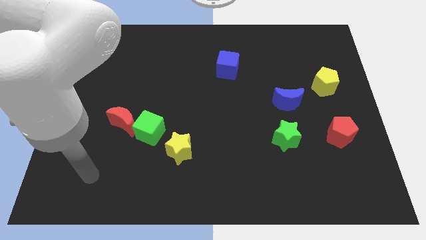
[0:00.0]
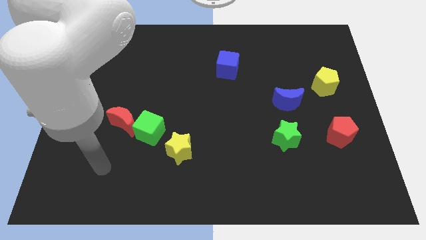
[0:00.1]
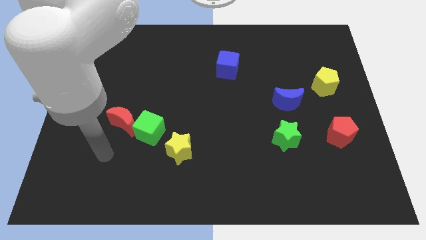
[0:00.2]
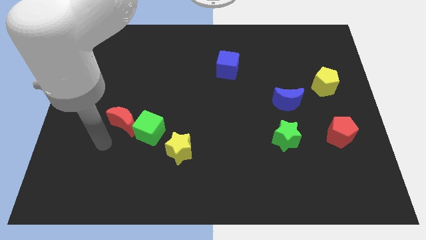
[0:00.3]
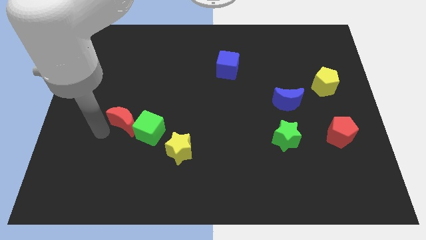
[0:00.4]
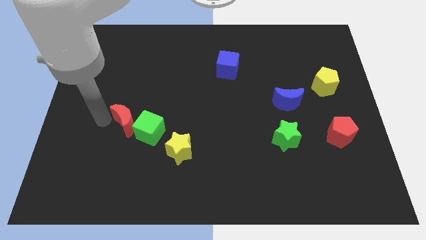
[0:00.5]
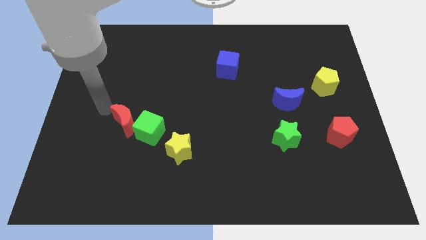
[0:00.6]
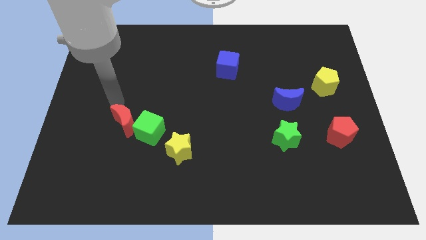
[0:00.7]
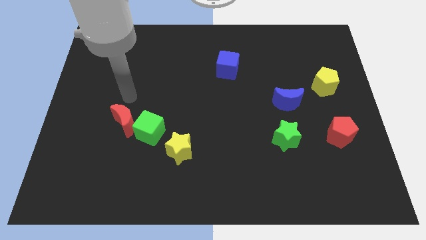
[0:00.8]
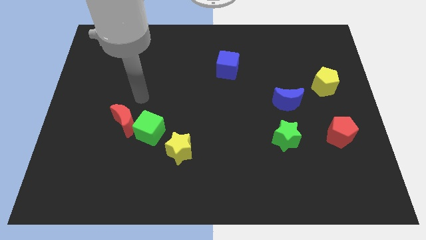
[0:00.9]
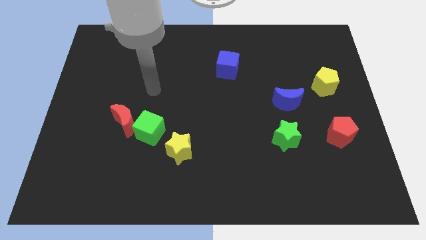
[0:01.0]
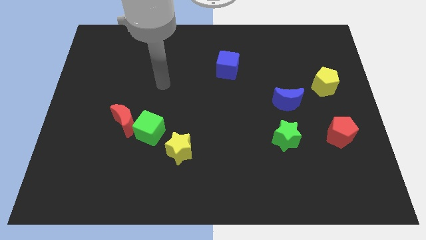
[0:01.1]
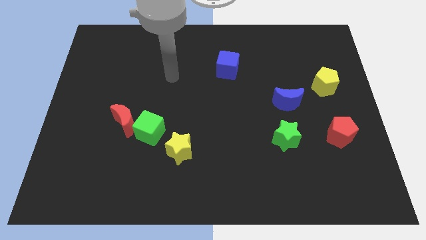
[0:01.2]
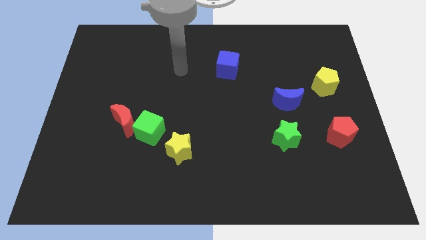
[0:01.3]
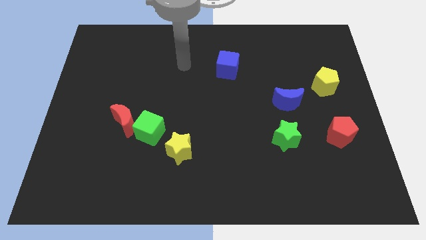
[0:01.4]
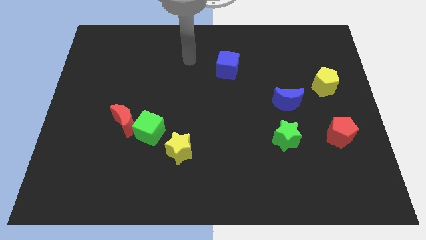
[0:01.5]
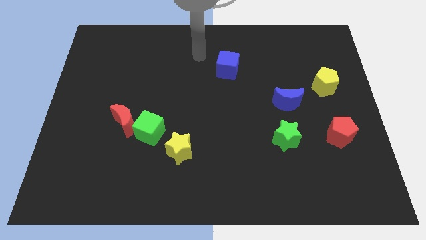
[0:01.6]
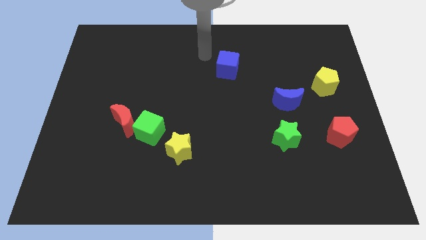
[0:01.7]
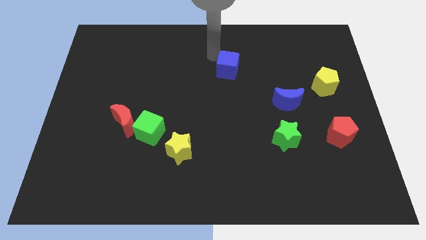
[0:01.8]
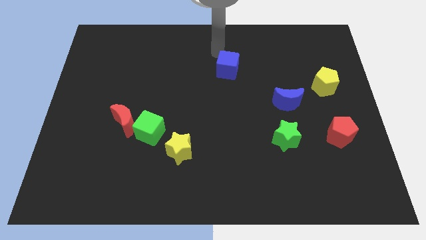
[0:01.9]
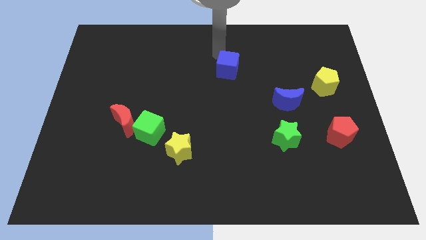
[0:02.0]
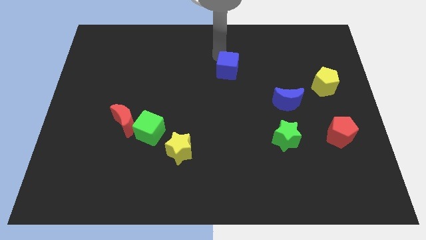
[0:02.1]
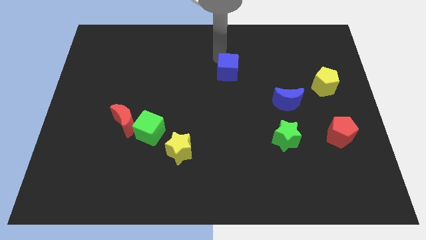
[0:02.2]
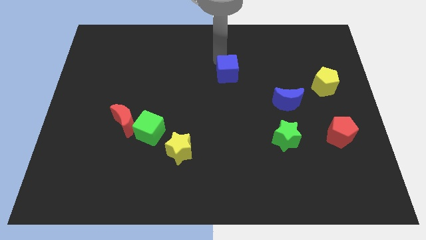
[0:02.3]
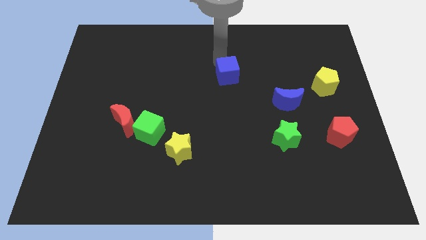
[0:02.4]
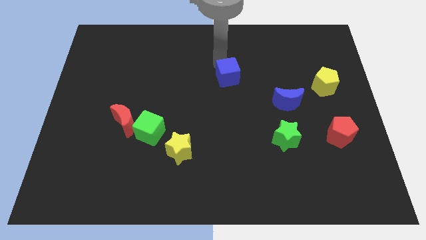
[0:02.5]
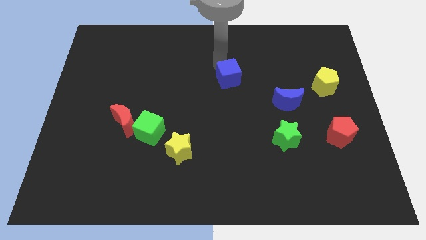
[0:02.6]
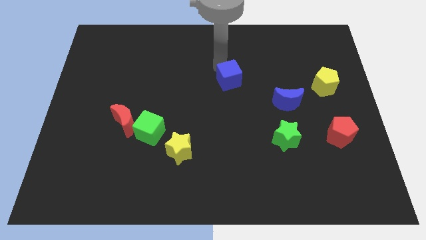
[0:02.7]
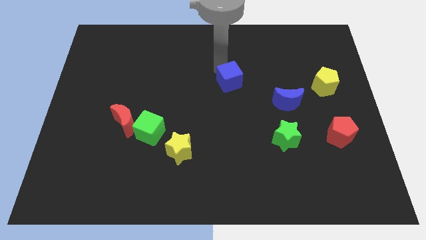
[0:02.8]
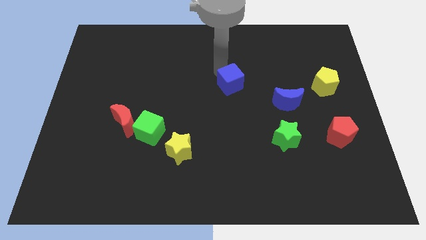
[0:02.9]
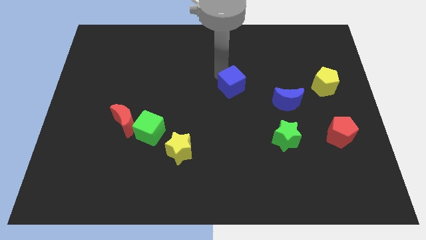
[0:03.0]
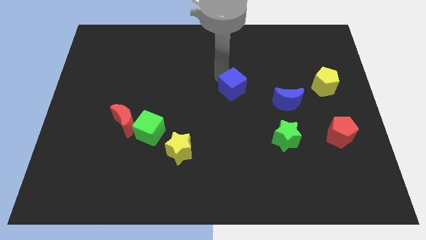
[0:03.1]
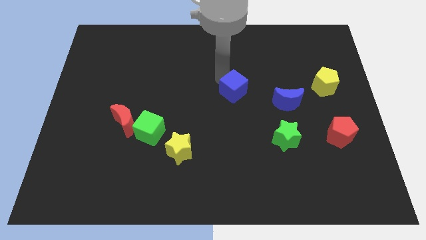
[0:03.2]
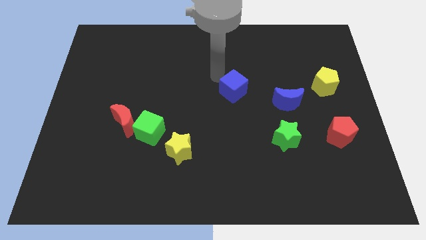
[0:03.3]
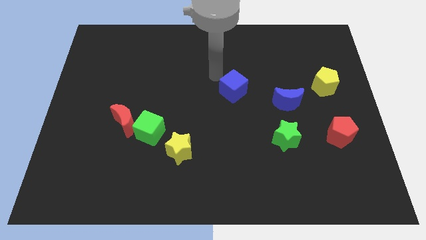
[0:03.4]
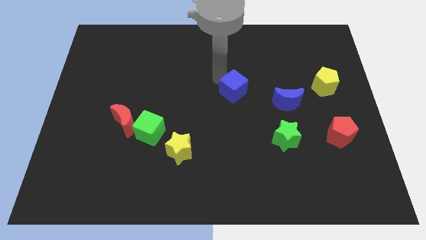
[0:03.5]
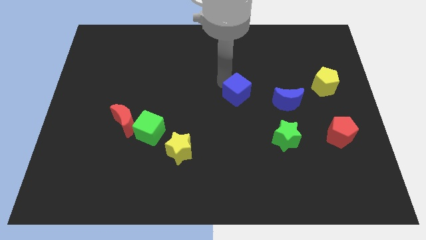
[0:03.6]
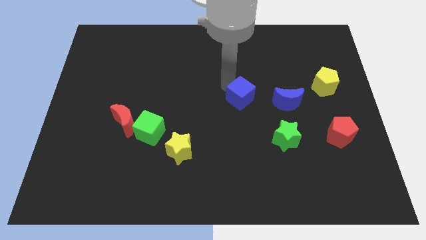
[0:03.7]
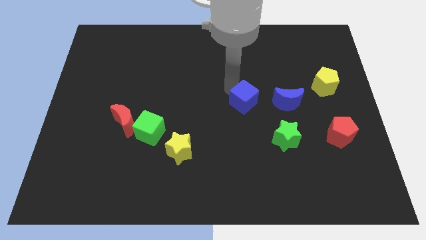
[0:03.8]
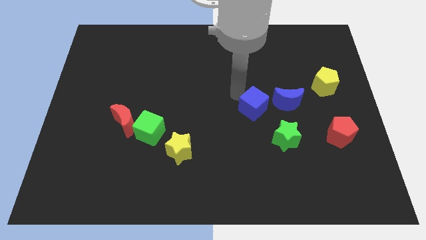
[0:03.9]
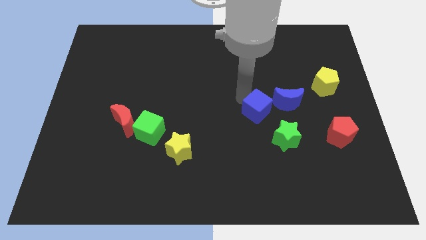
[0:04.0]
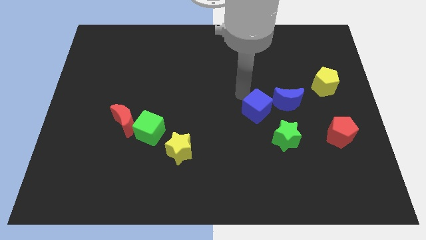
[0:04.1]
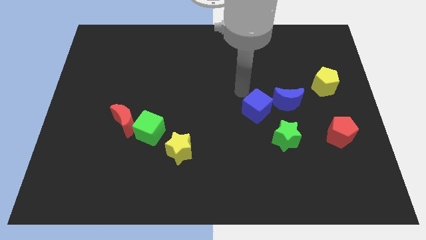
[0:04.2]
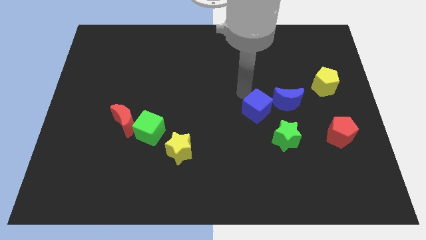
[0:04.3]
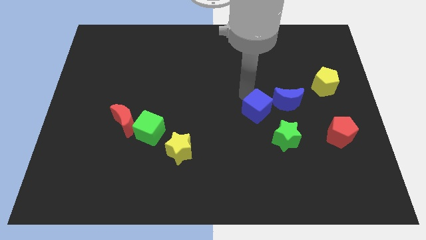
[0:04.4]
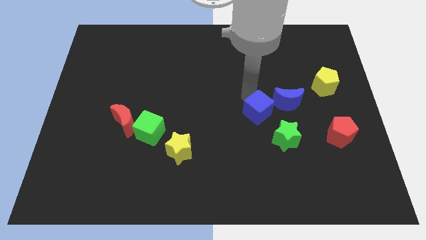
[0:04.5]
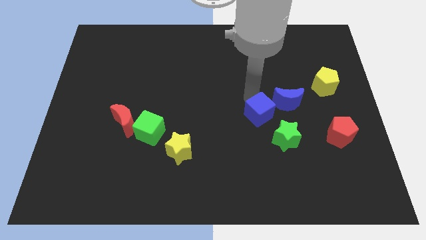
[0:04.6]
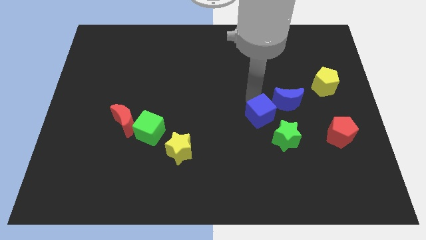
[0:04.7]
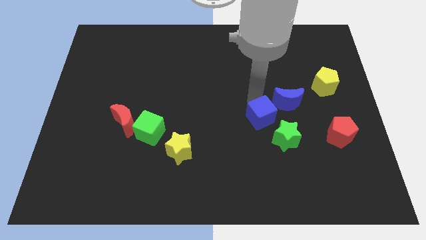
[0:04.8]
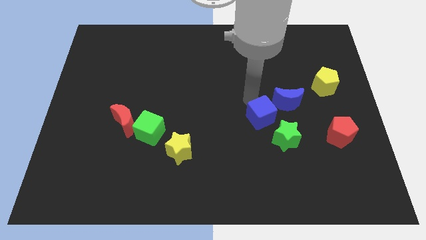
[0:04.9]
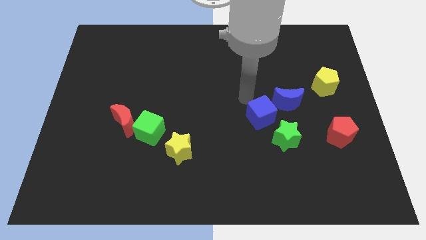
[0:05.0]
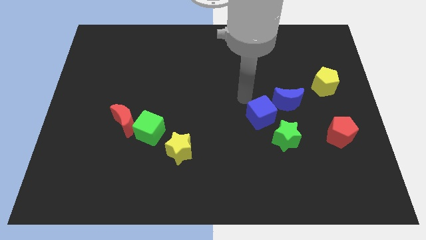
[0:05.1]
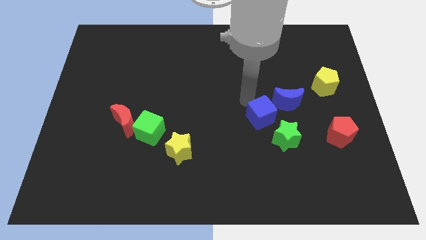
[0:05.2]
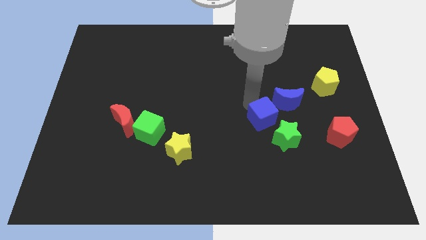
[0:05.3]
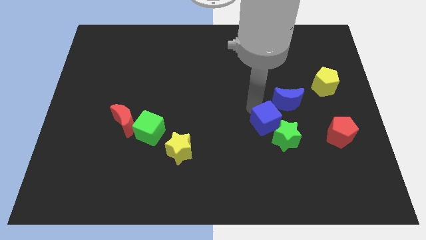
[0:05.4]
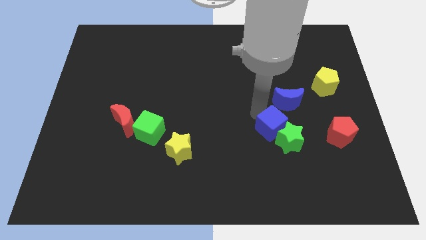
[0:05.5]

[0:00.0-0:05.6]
move the blue cube to the green star

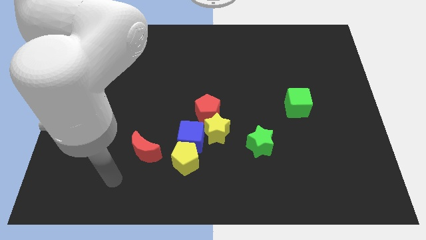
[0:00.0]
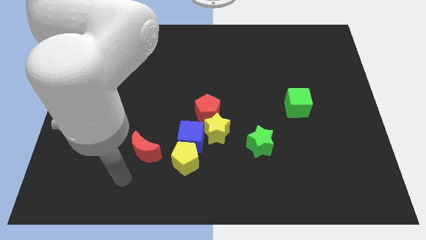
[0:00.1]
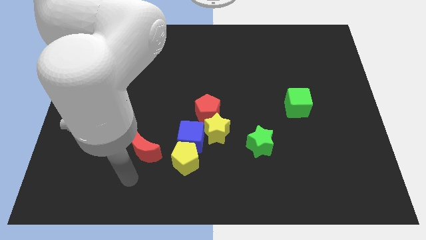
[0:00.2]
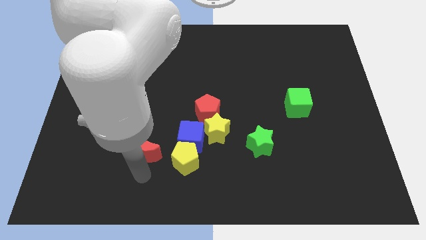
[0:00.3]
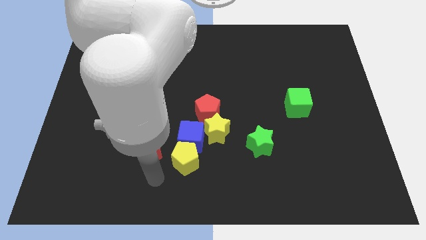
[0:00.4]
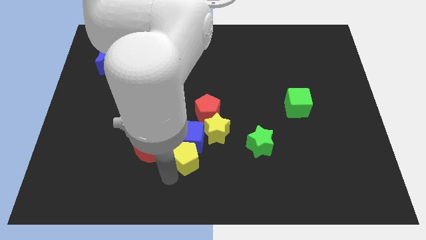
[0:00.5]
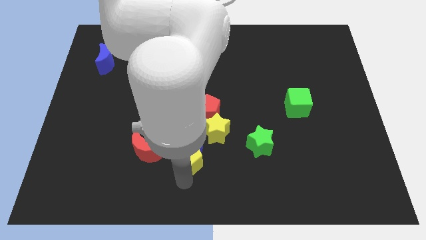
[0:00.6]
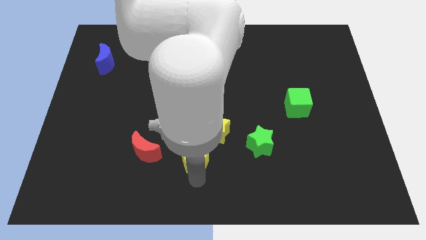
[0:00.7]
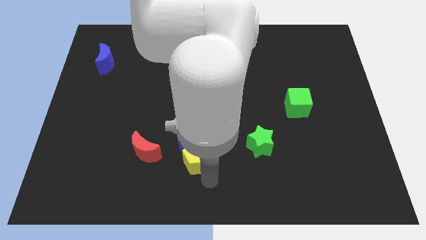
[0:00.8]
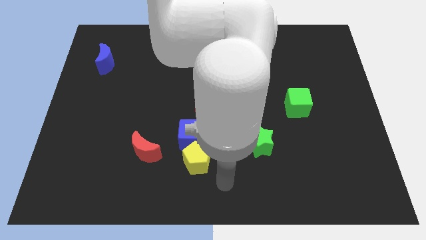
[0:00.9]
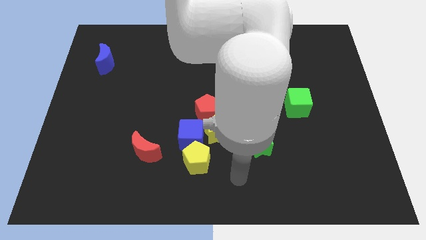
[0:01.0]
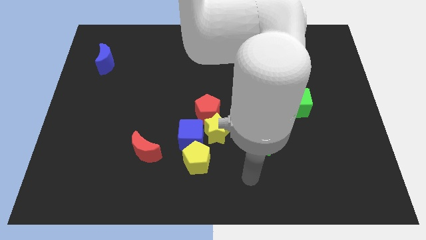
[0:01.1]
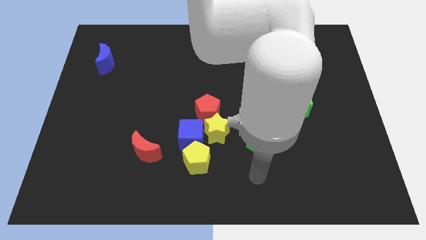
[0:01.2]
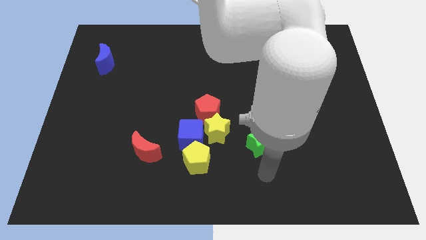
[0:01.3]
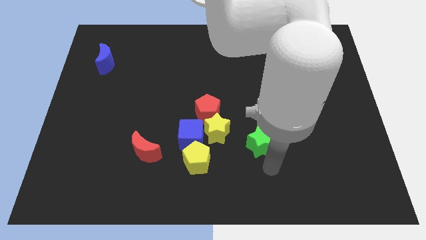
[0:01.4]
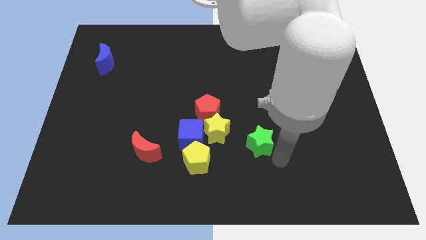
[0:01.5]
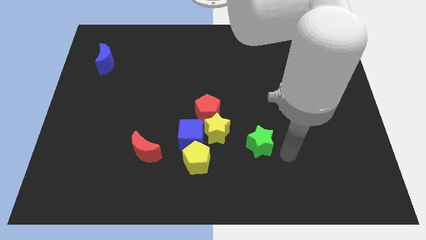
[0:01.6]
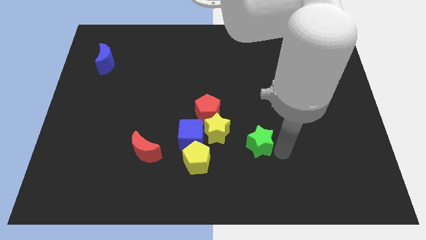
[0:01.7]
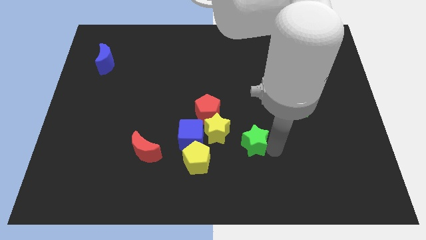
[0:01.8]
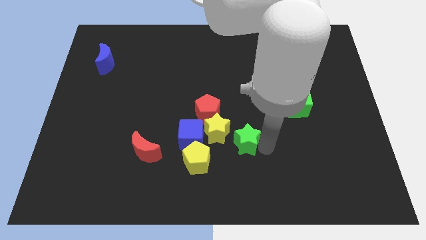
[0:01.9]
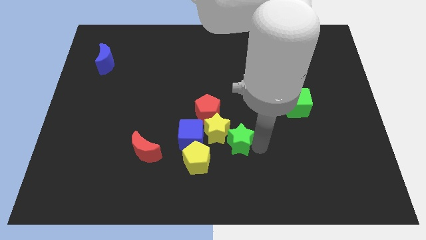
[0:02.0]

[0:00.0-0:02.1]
push the green star next to the yellow star
